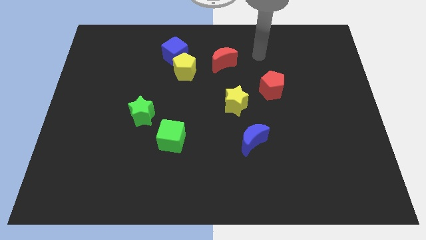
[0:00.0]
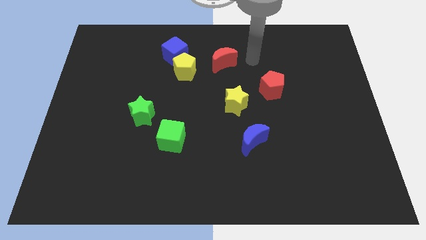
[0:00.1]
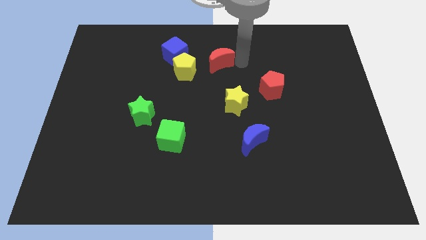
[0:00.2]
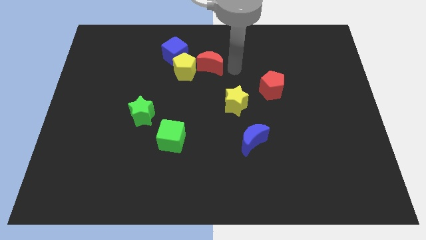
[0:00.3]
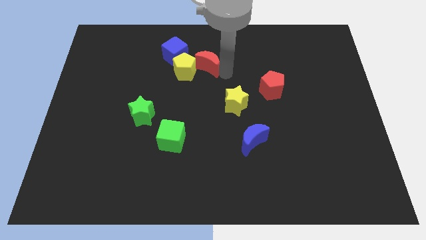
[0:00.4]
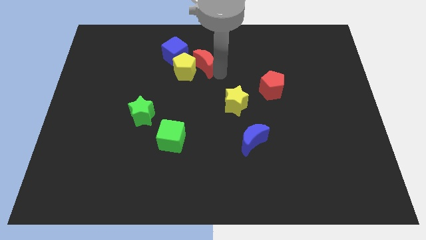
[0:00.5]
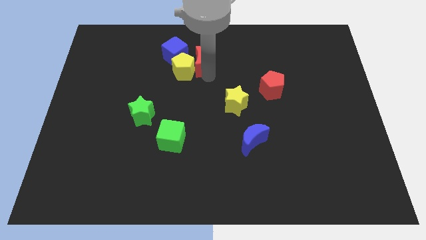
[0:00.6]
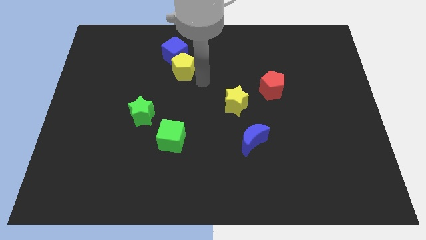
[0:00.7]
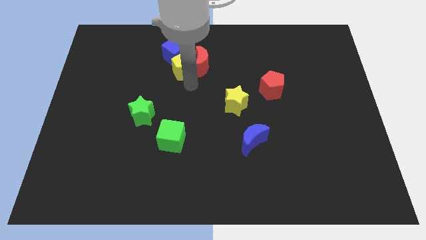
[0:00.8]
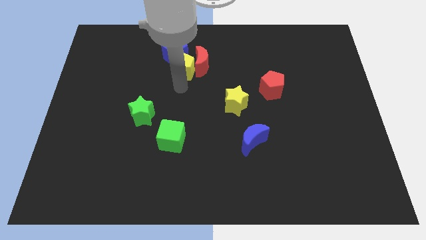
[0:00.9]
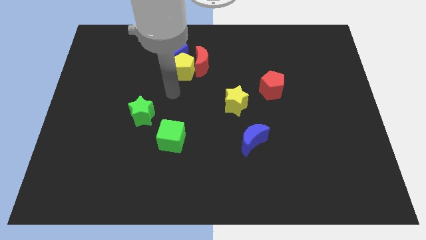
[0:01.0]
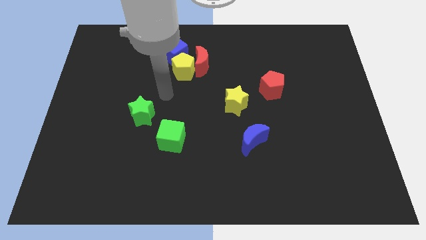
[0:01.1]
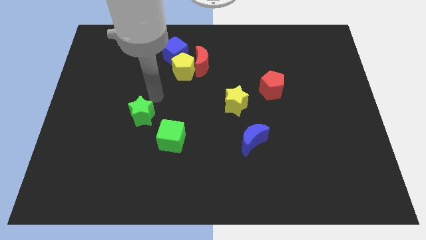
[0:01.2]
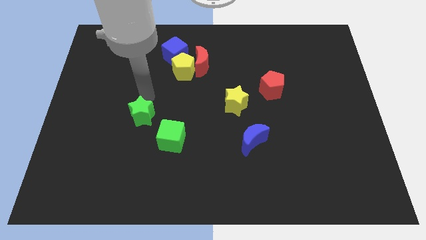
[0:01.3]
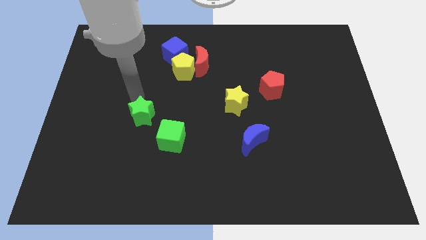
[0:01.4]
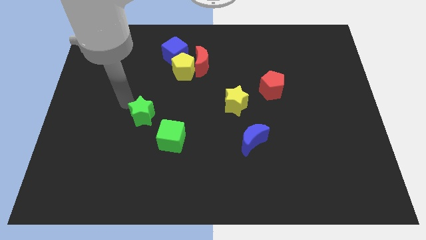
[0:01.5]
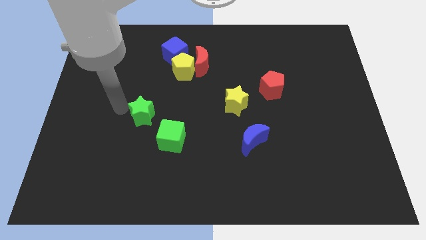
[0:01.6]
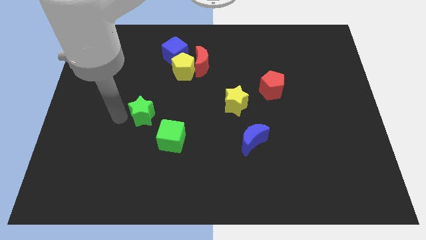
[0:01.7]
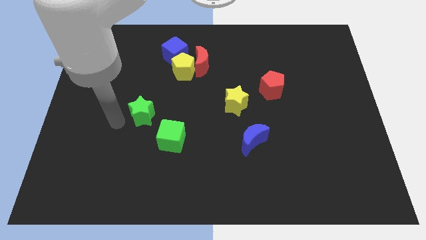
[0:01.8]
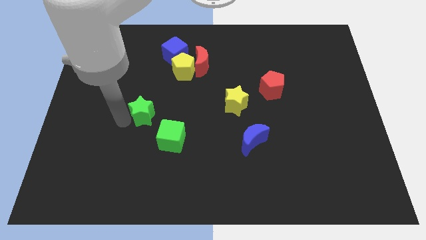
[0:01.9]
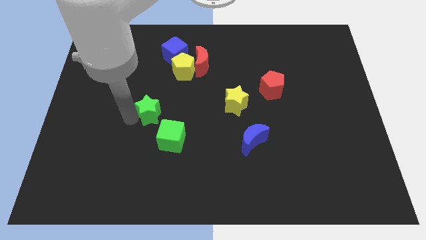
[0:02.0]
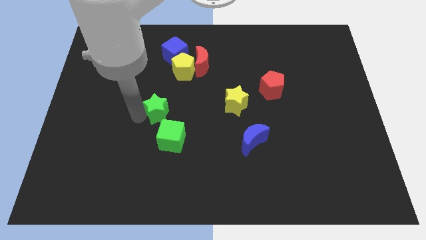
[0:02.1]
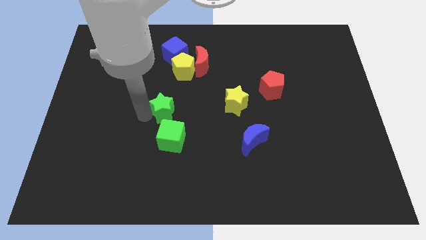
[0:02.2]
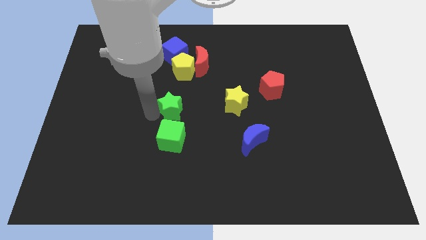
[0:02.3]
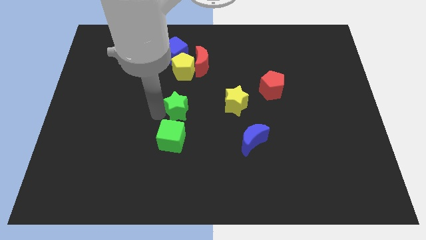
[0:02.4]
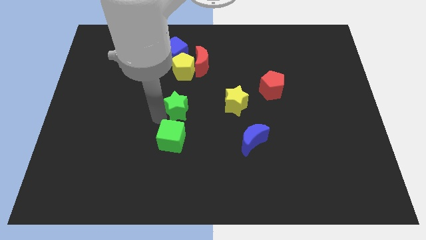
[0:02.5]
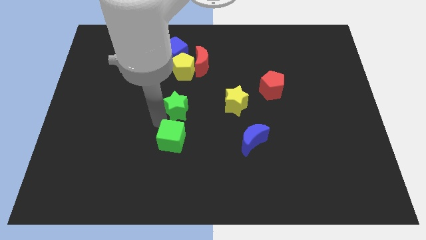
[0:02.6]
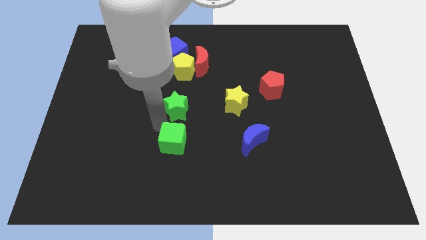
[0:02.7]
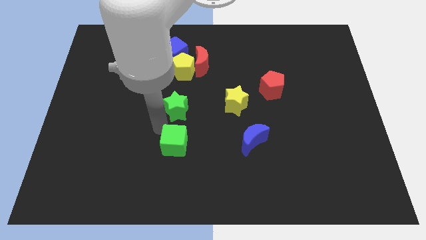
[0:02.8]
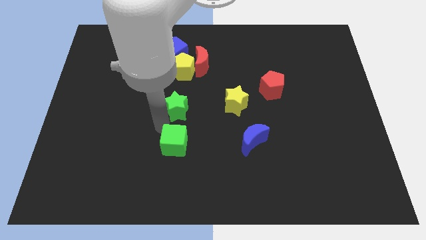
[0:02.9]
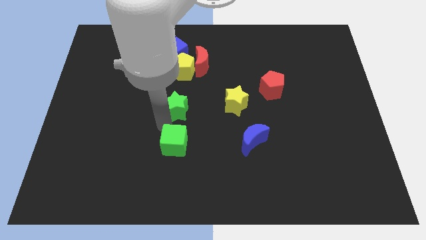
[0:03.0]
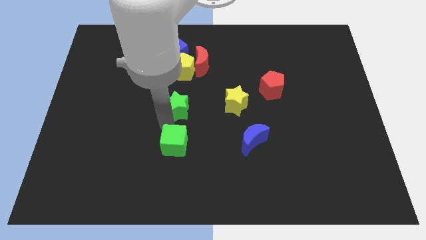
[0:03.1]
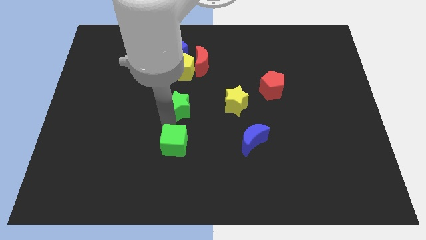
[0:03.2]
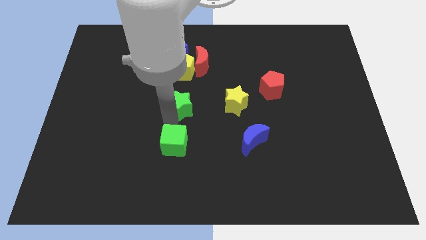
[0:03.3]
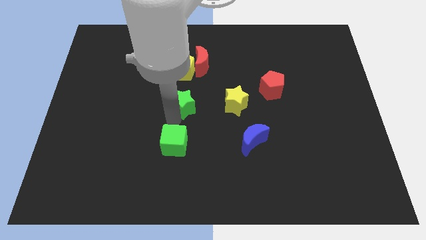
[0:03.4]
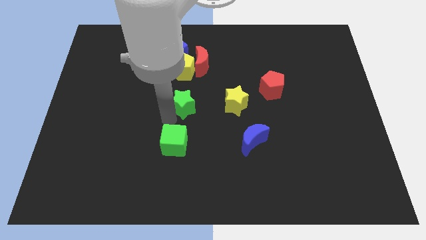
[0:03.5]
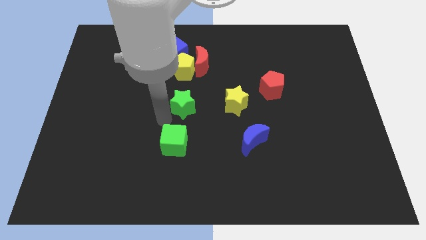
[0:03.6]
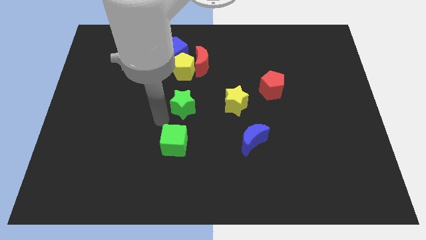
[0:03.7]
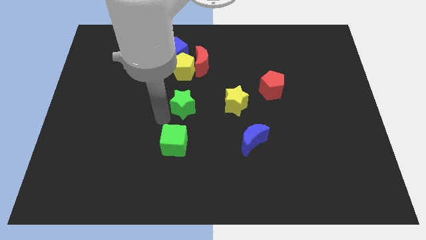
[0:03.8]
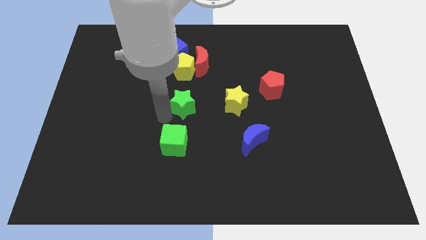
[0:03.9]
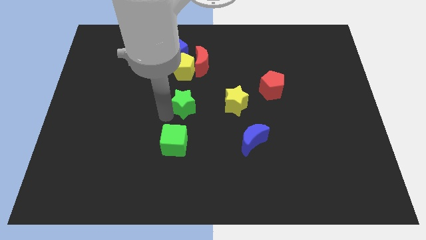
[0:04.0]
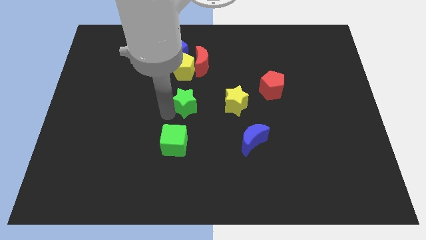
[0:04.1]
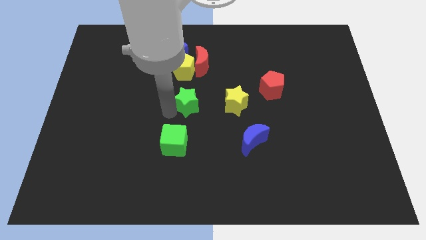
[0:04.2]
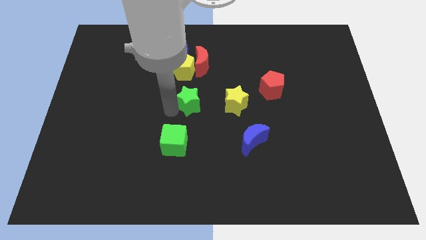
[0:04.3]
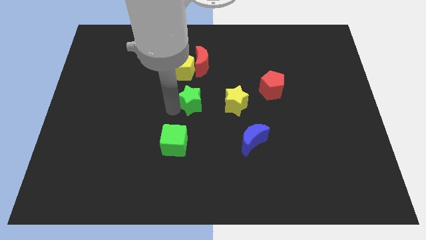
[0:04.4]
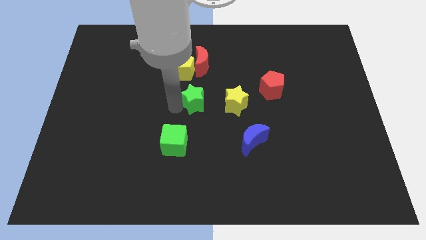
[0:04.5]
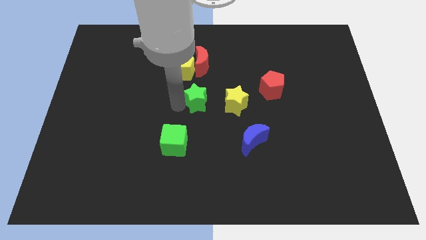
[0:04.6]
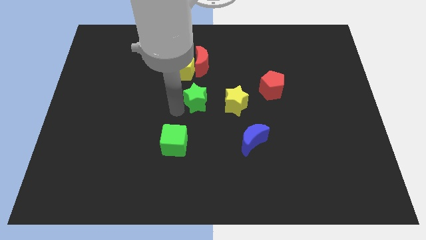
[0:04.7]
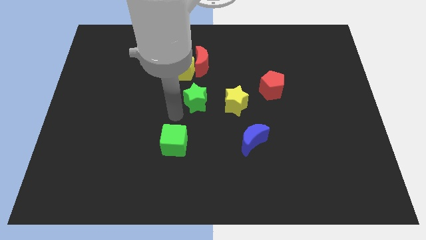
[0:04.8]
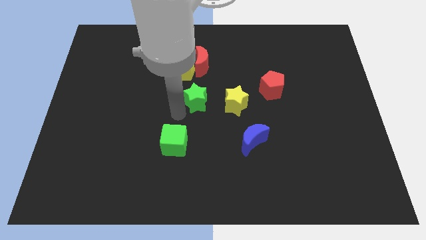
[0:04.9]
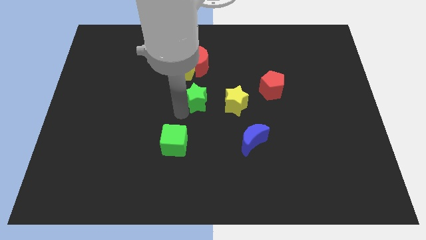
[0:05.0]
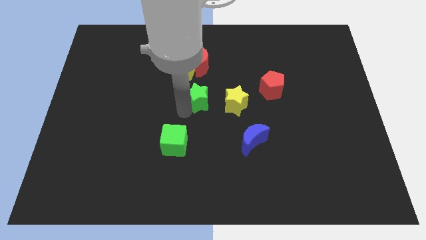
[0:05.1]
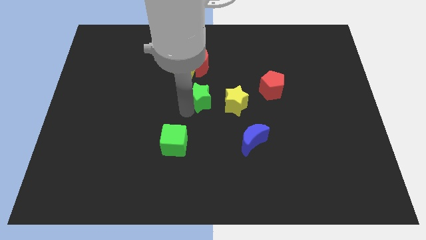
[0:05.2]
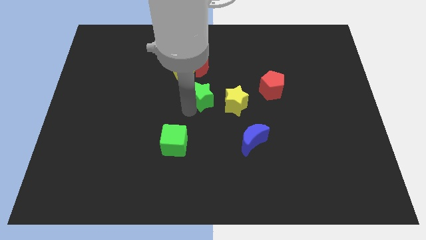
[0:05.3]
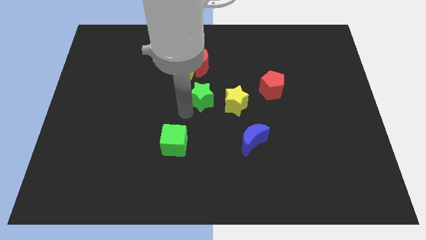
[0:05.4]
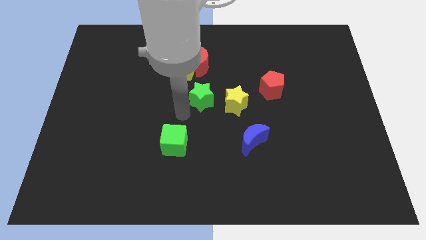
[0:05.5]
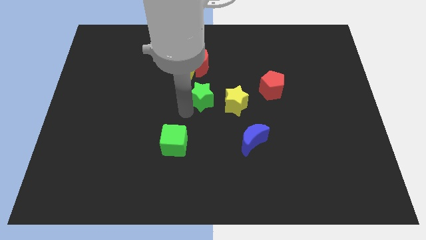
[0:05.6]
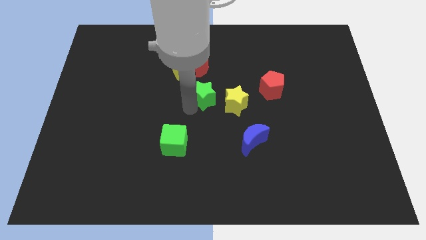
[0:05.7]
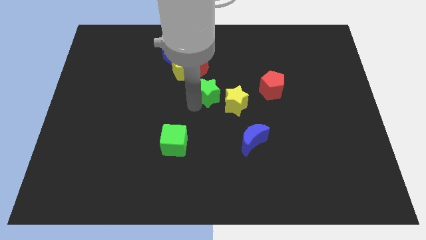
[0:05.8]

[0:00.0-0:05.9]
put the green star just left of the red pentagon

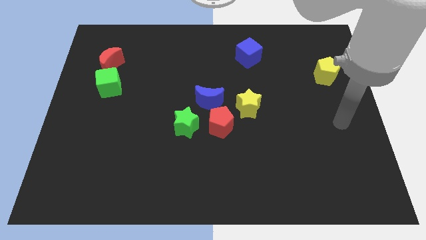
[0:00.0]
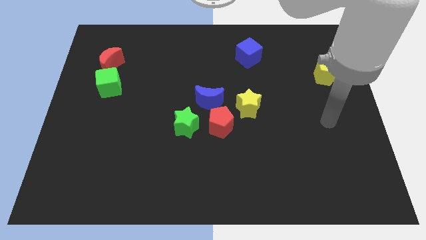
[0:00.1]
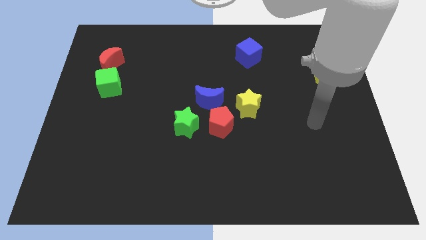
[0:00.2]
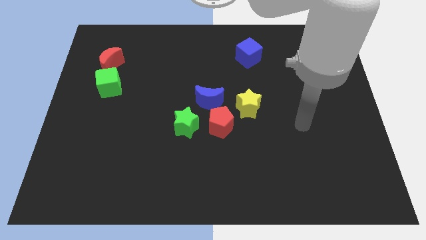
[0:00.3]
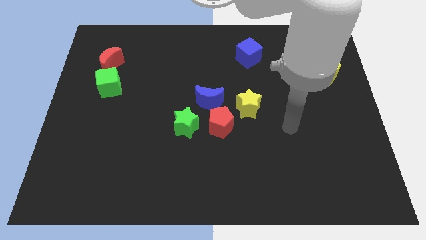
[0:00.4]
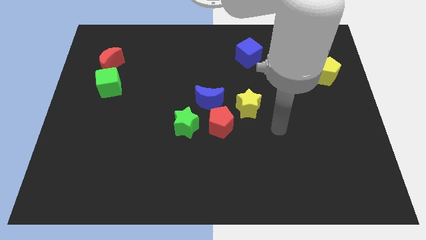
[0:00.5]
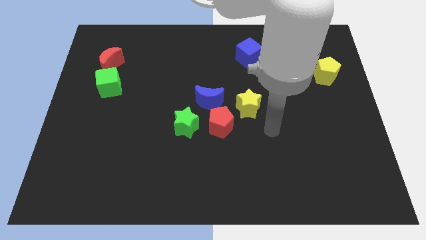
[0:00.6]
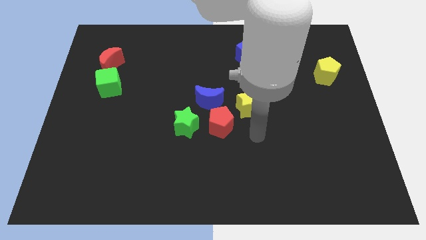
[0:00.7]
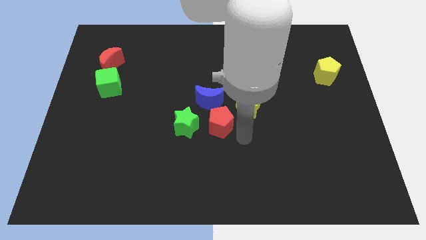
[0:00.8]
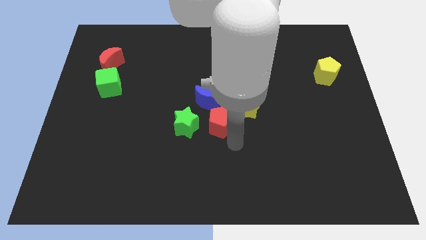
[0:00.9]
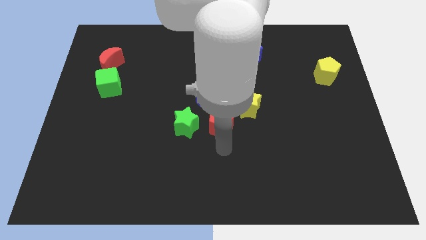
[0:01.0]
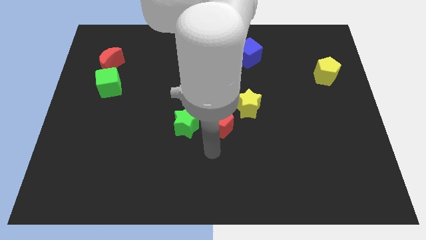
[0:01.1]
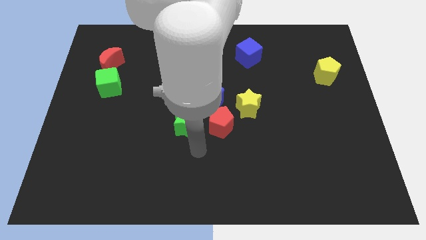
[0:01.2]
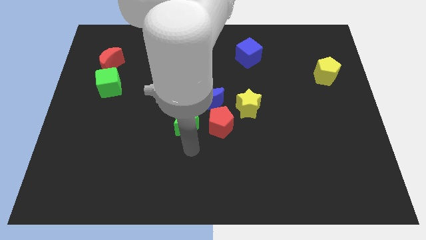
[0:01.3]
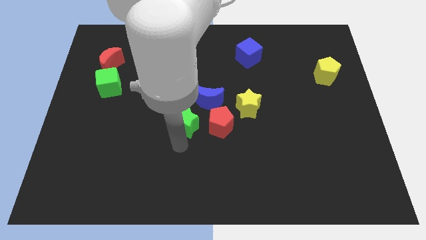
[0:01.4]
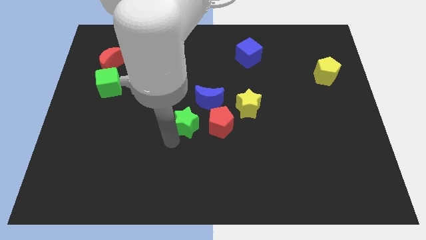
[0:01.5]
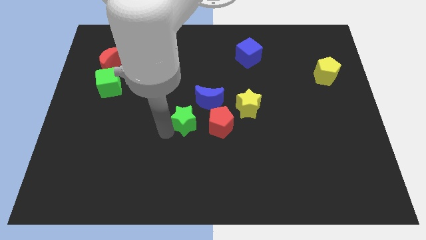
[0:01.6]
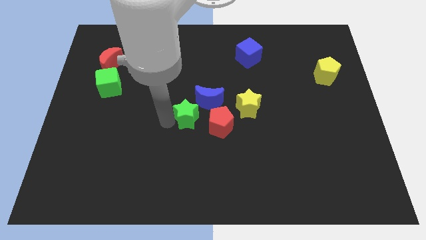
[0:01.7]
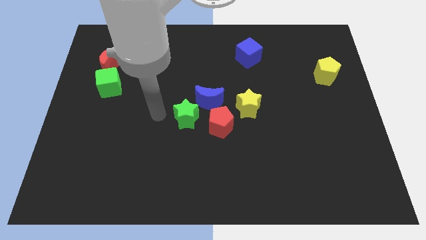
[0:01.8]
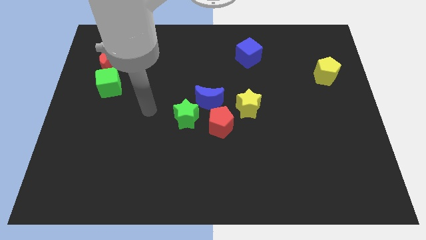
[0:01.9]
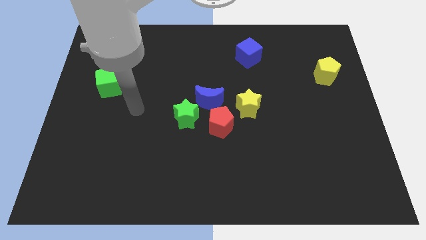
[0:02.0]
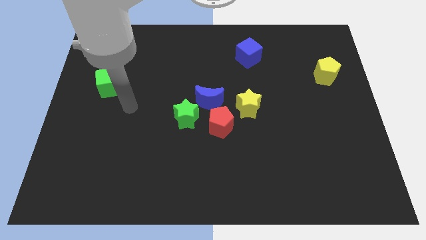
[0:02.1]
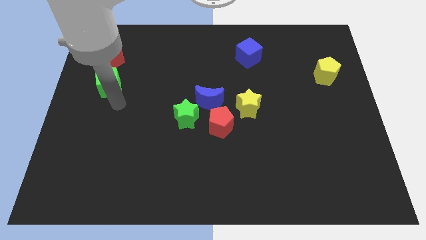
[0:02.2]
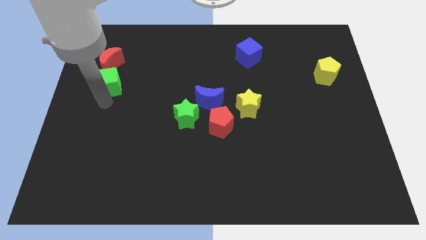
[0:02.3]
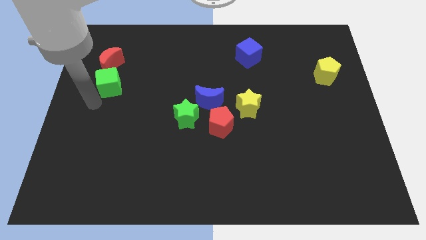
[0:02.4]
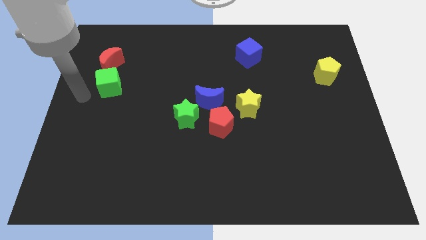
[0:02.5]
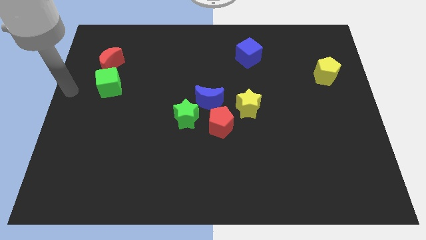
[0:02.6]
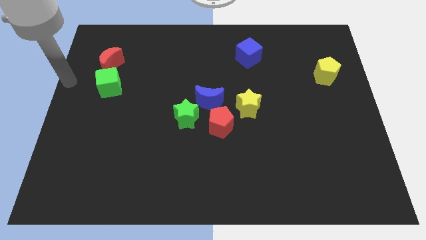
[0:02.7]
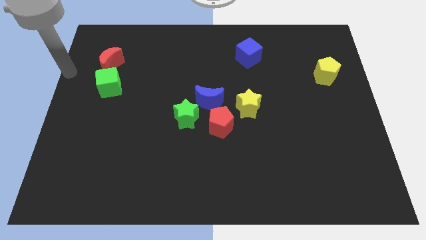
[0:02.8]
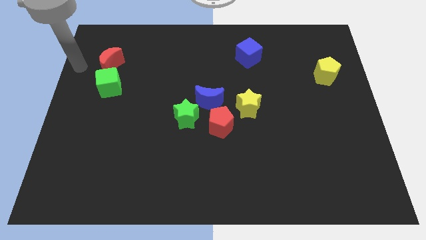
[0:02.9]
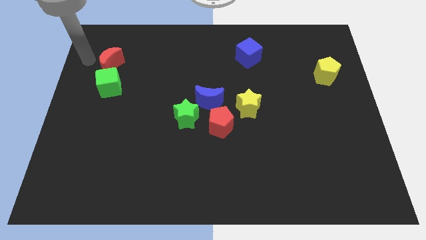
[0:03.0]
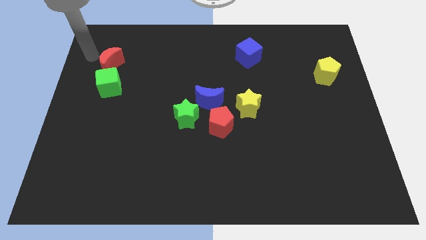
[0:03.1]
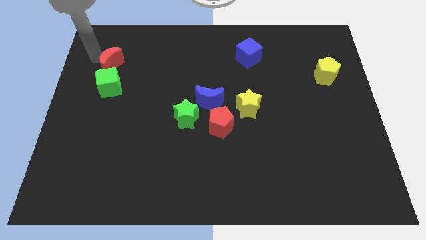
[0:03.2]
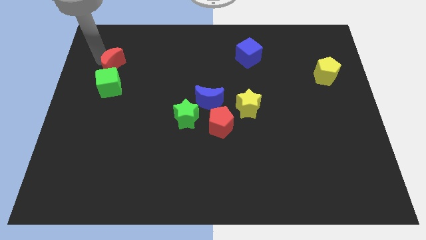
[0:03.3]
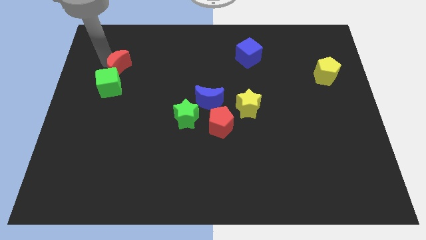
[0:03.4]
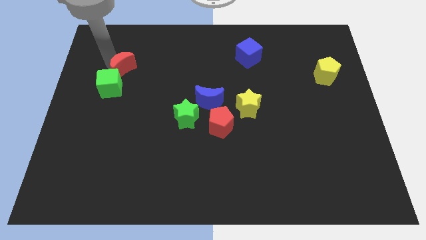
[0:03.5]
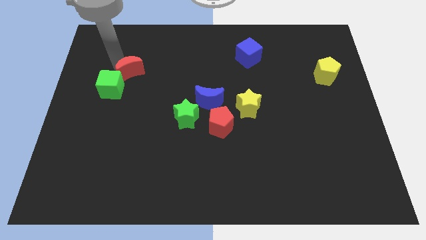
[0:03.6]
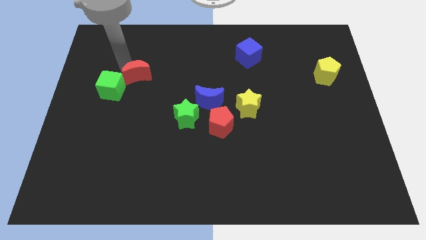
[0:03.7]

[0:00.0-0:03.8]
put the red moon to the right side of the green cube
